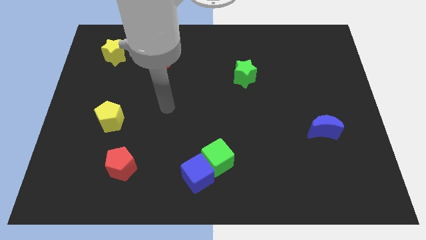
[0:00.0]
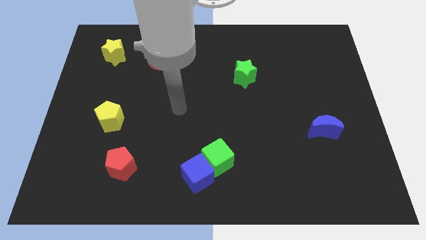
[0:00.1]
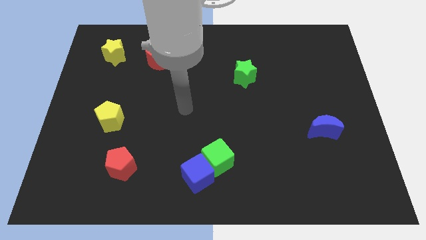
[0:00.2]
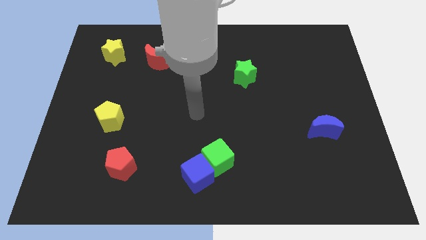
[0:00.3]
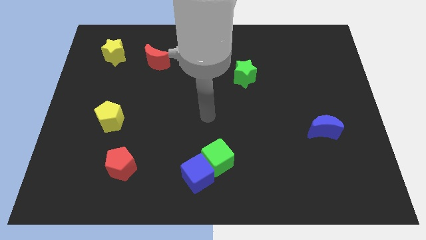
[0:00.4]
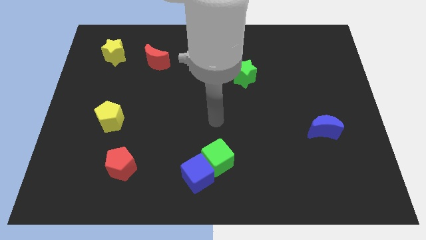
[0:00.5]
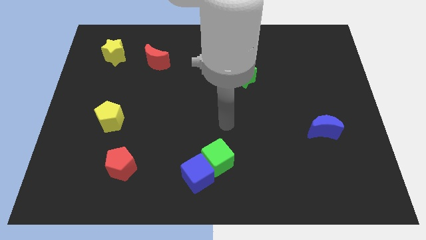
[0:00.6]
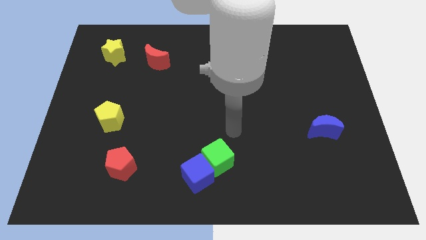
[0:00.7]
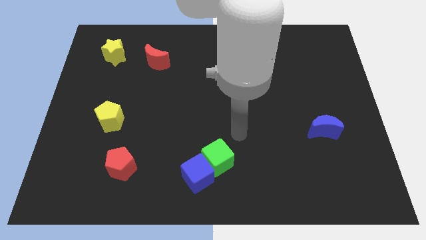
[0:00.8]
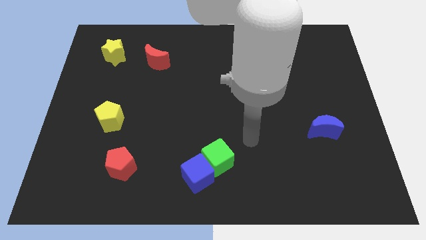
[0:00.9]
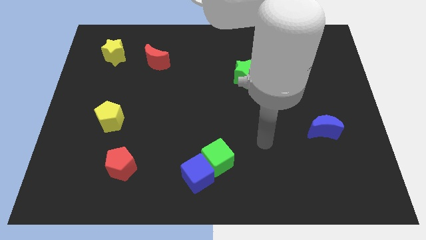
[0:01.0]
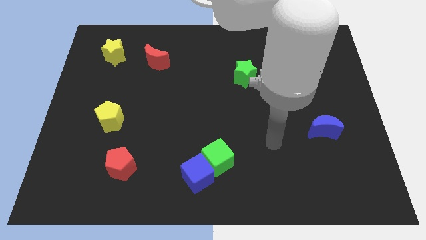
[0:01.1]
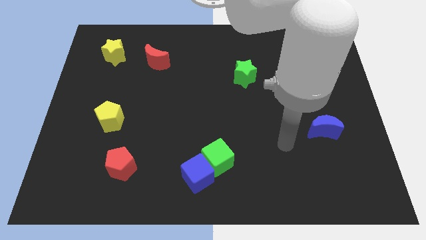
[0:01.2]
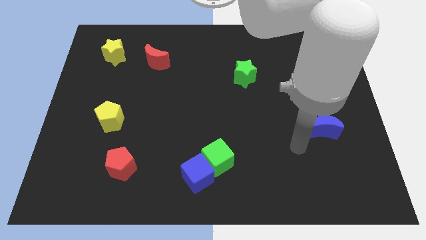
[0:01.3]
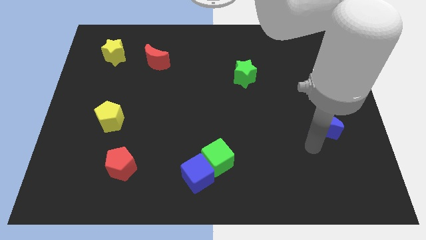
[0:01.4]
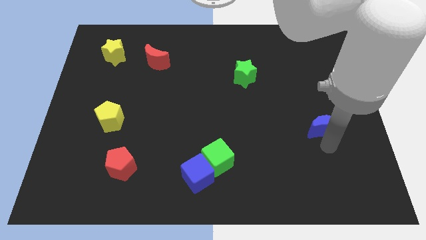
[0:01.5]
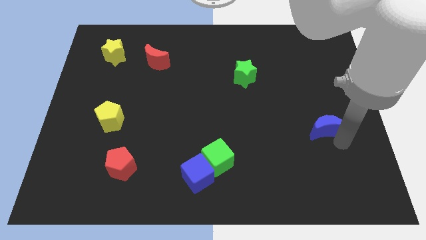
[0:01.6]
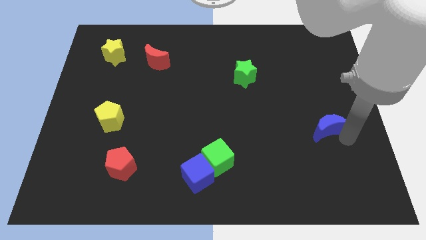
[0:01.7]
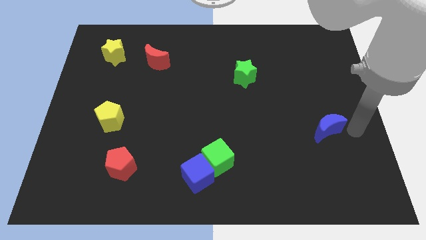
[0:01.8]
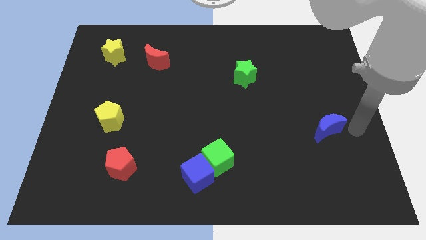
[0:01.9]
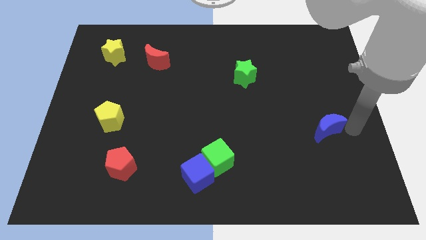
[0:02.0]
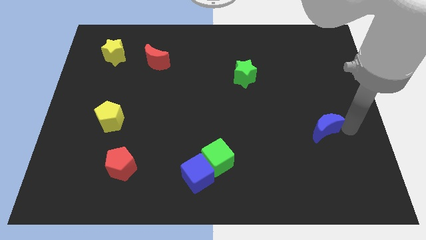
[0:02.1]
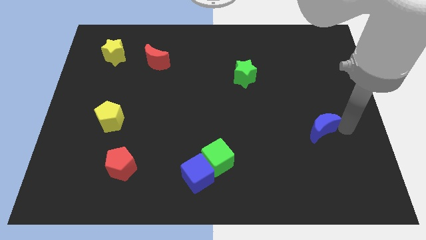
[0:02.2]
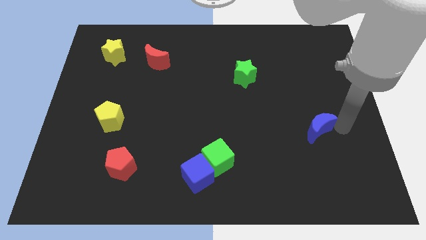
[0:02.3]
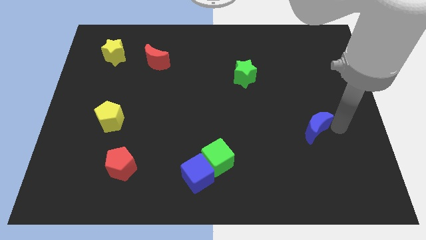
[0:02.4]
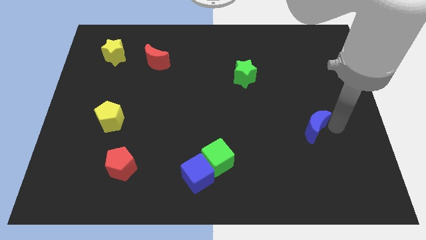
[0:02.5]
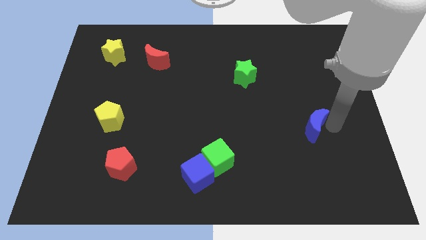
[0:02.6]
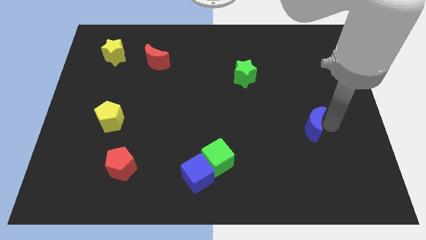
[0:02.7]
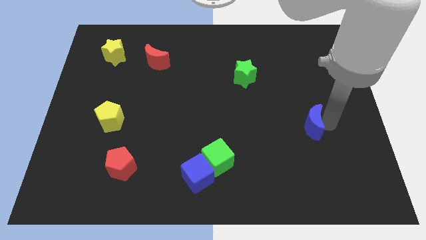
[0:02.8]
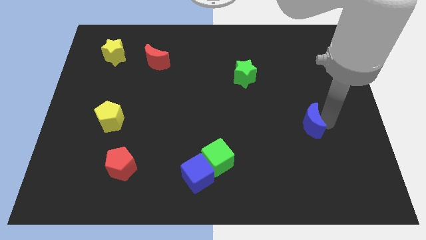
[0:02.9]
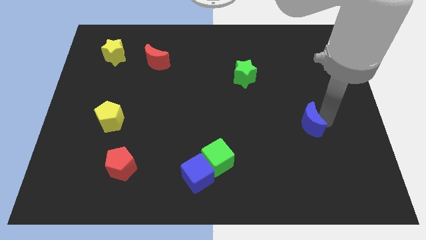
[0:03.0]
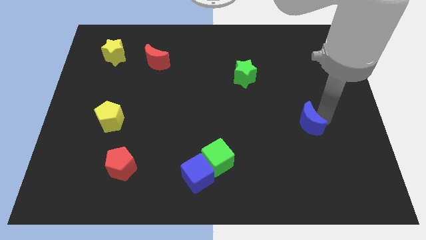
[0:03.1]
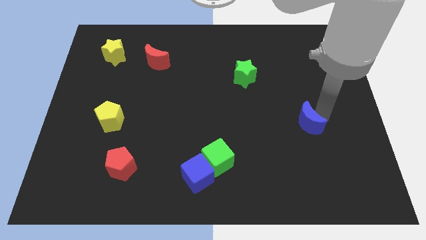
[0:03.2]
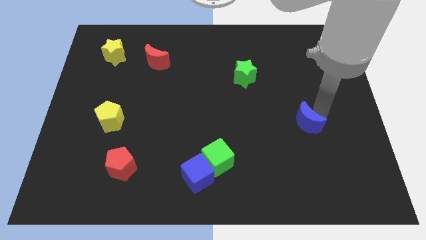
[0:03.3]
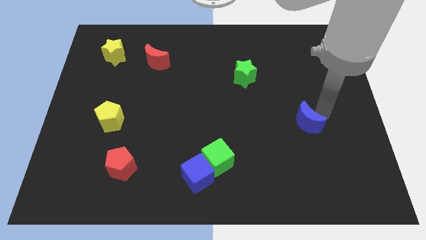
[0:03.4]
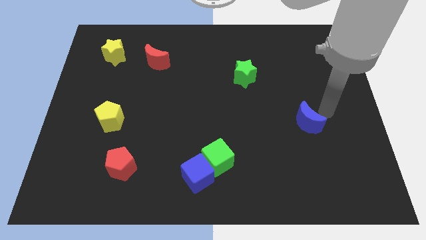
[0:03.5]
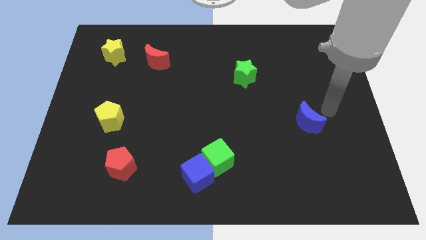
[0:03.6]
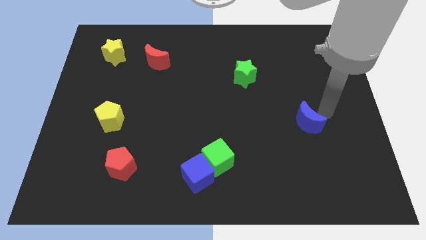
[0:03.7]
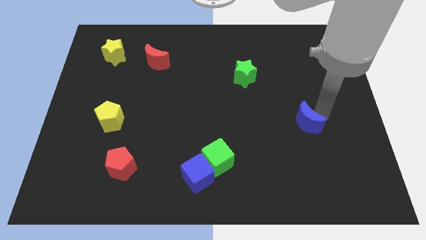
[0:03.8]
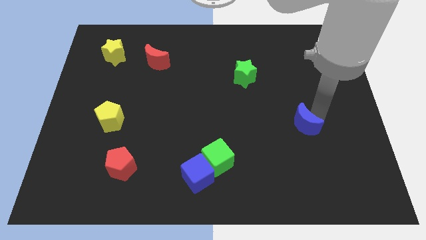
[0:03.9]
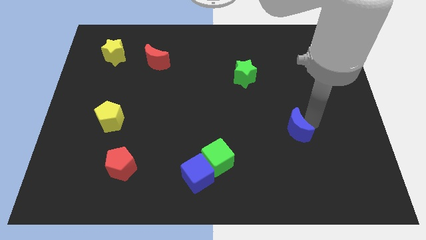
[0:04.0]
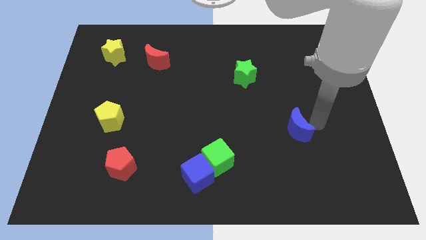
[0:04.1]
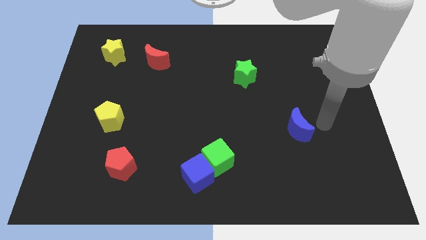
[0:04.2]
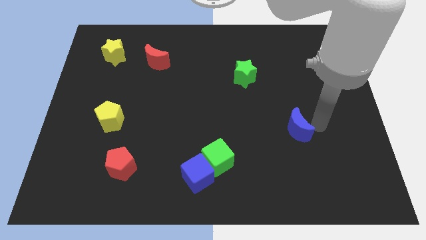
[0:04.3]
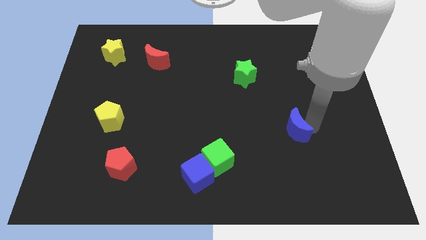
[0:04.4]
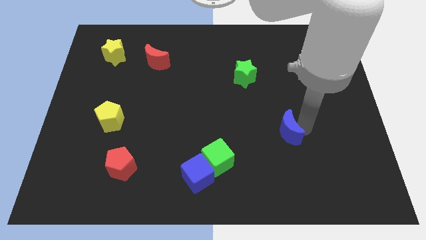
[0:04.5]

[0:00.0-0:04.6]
slide the blue moon a little to the left

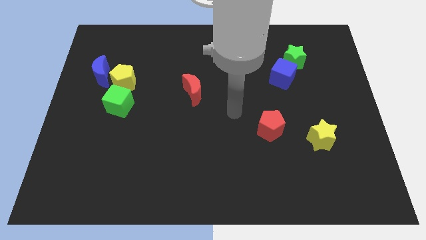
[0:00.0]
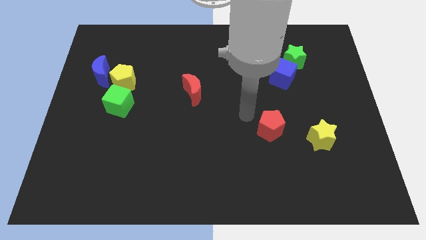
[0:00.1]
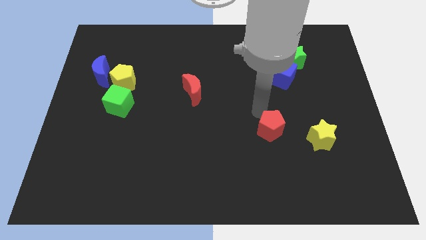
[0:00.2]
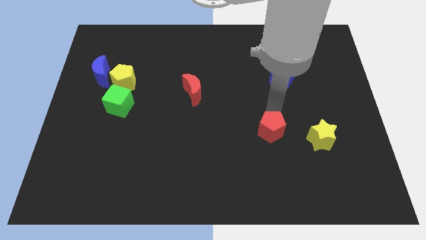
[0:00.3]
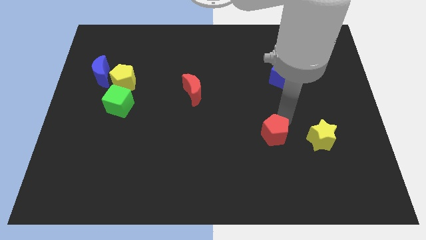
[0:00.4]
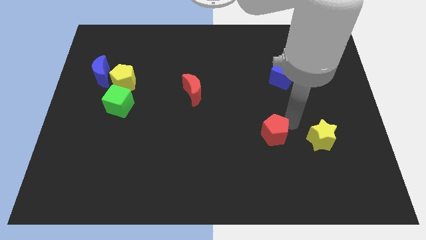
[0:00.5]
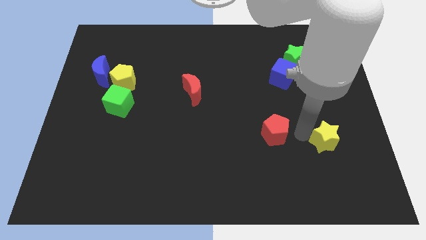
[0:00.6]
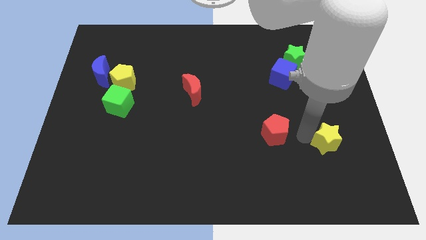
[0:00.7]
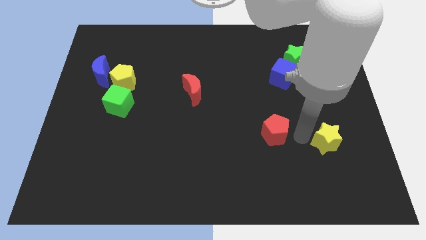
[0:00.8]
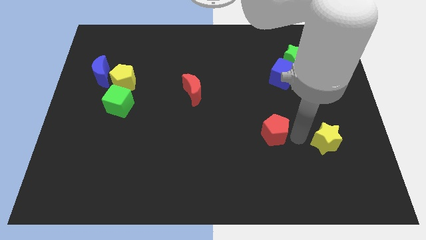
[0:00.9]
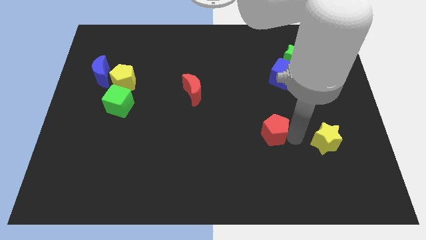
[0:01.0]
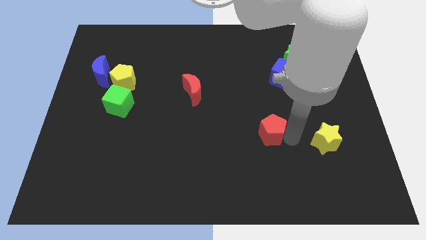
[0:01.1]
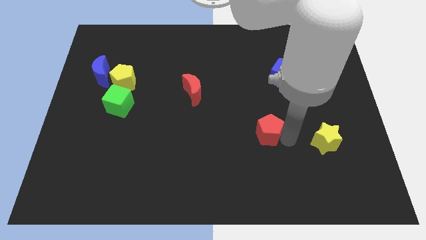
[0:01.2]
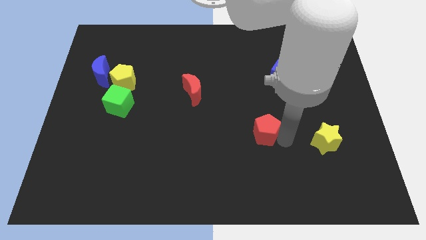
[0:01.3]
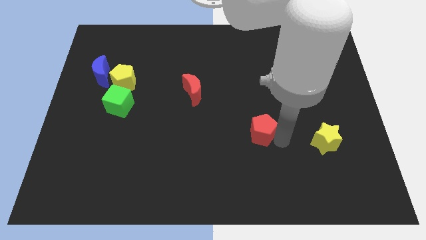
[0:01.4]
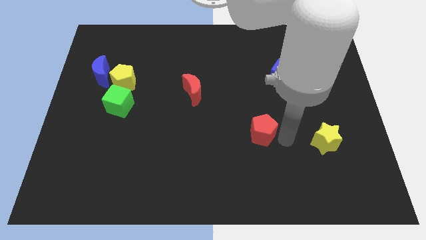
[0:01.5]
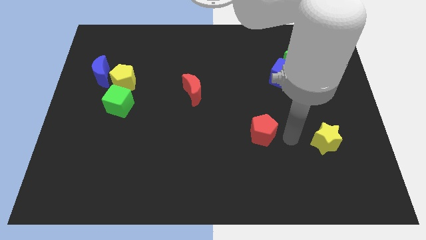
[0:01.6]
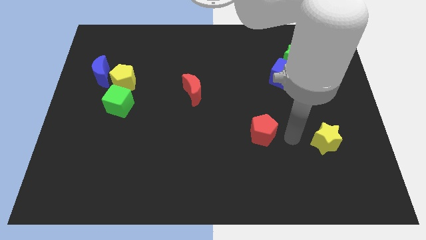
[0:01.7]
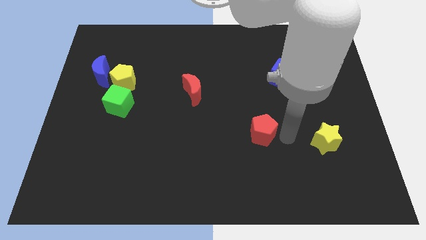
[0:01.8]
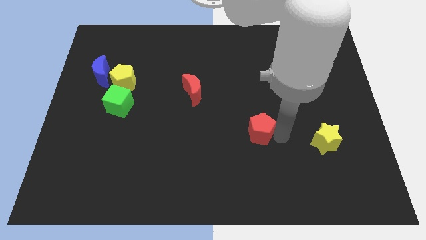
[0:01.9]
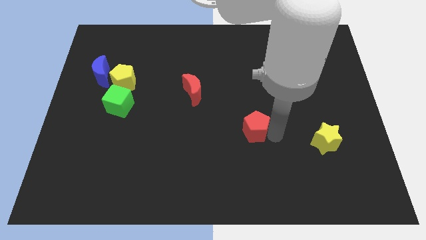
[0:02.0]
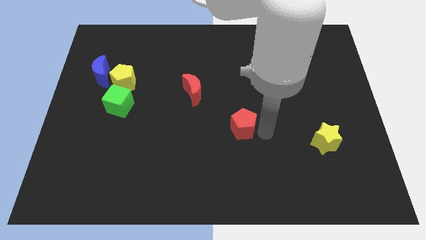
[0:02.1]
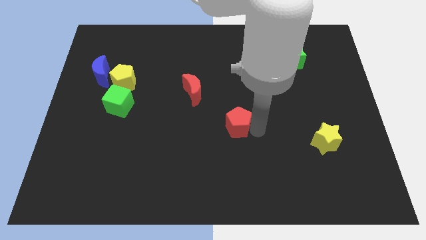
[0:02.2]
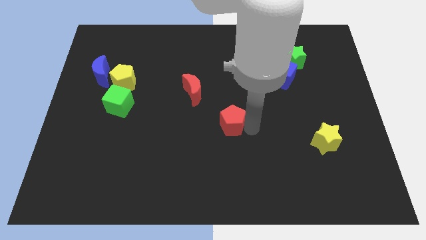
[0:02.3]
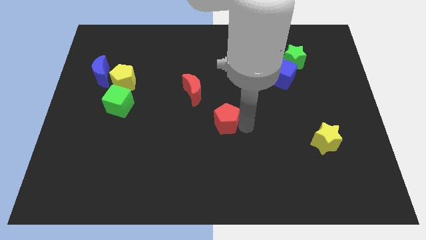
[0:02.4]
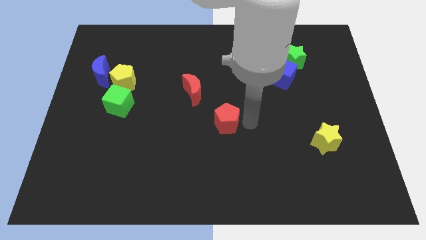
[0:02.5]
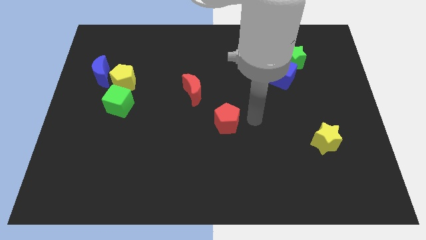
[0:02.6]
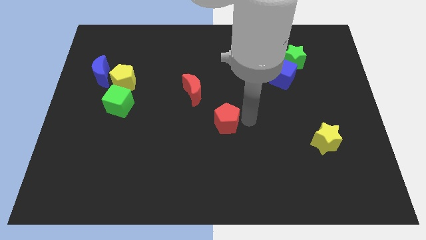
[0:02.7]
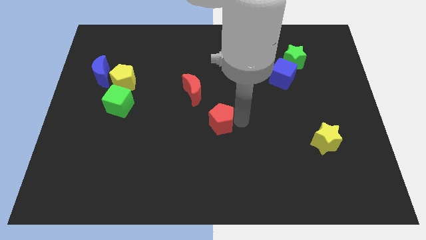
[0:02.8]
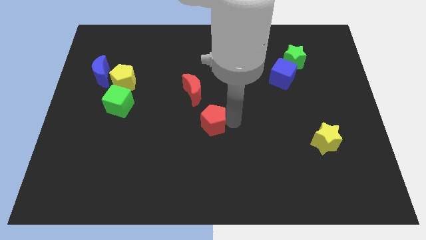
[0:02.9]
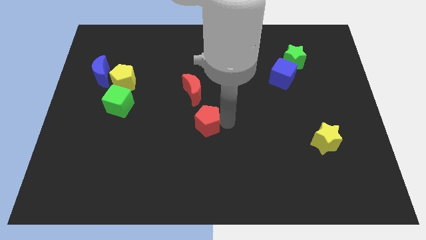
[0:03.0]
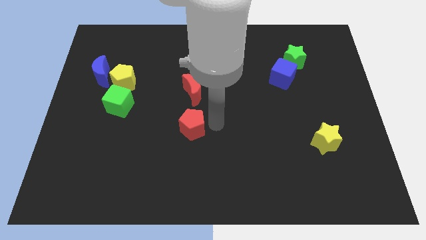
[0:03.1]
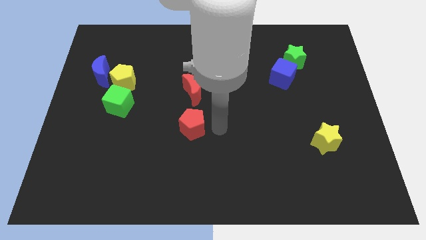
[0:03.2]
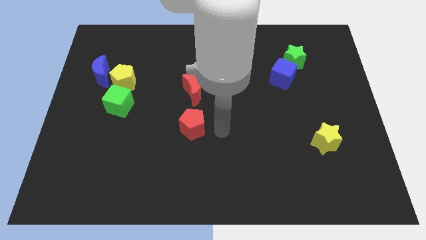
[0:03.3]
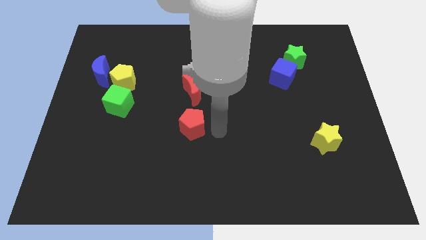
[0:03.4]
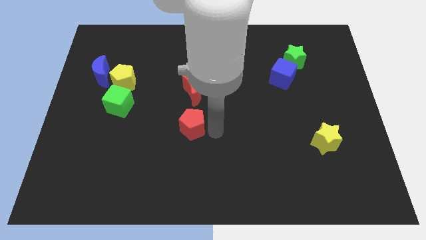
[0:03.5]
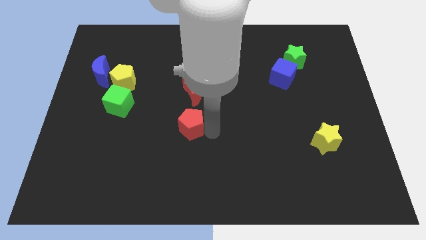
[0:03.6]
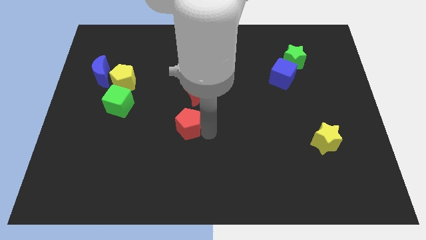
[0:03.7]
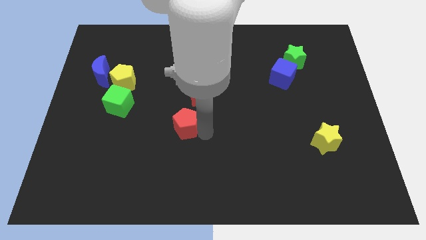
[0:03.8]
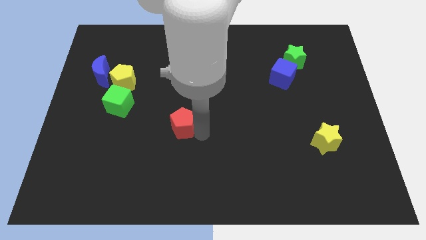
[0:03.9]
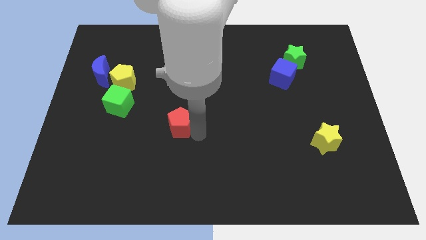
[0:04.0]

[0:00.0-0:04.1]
move the red pentagon to the left
